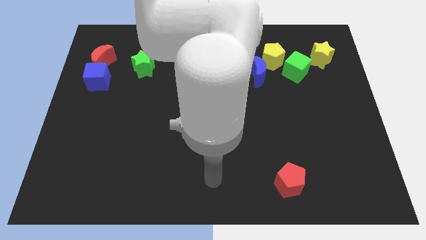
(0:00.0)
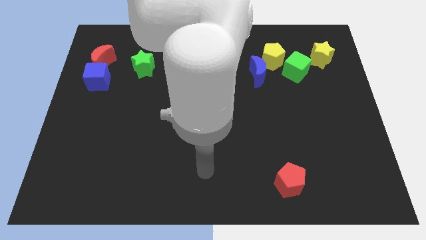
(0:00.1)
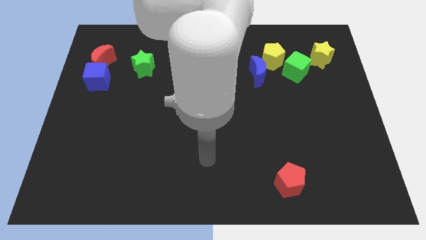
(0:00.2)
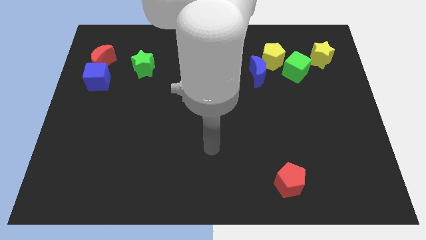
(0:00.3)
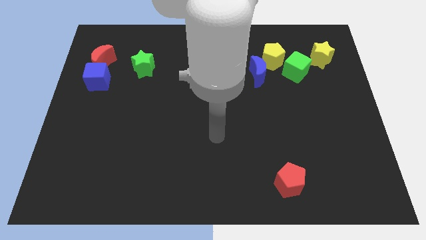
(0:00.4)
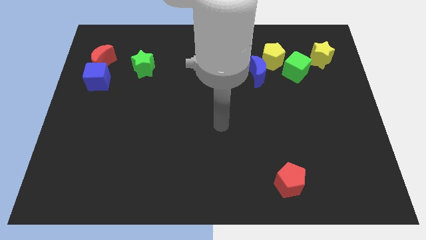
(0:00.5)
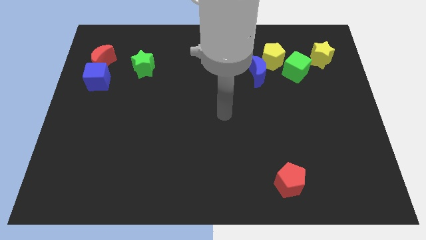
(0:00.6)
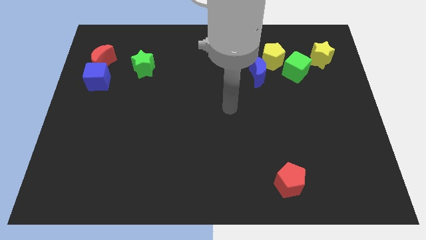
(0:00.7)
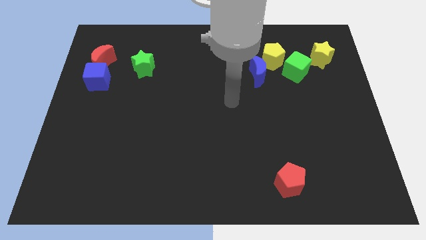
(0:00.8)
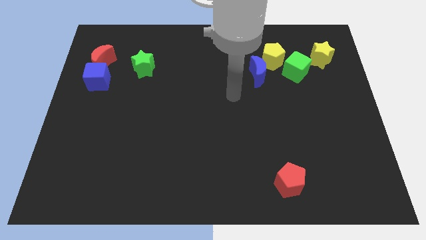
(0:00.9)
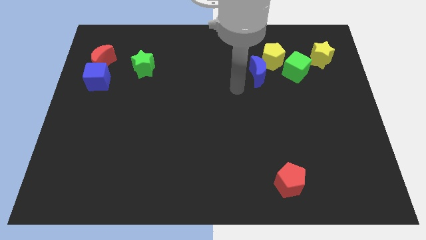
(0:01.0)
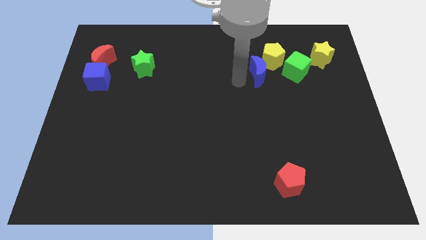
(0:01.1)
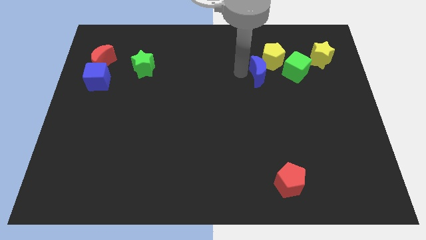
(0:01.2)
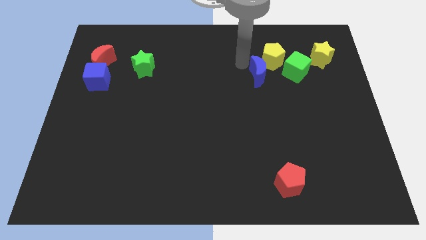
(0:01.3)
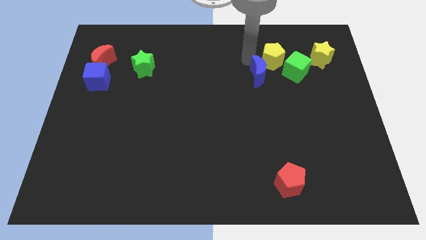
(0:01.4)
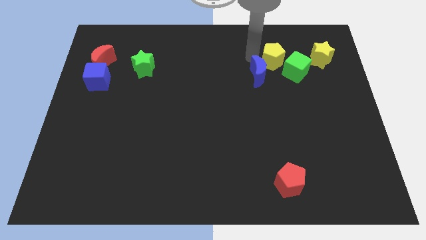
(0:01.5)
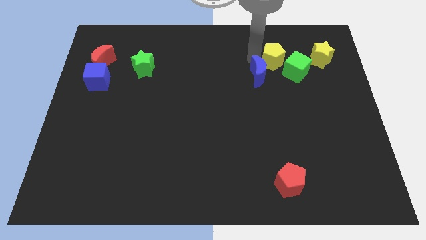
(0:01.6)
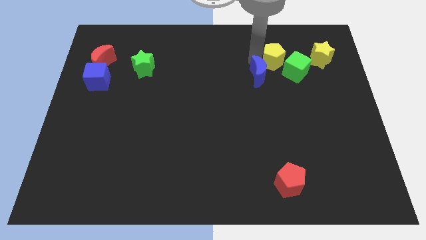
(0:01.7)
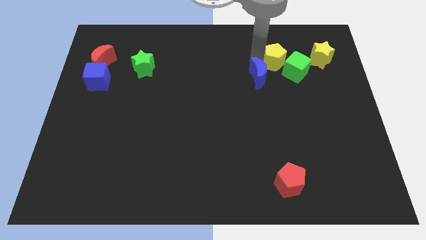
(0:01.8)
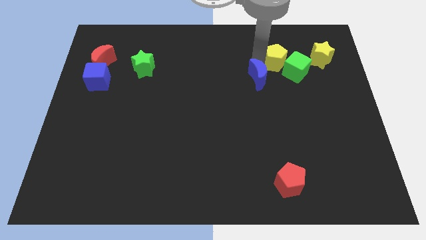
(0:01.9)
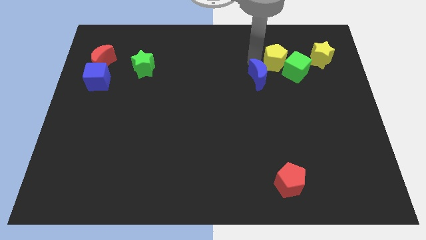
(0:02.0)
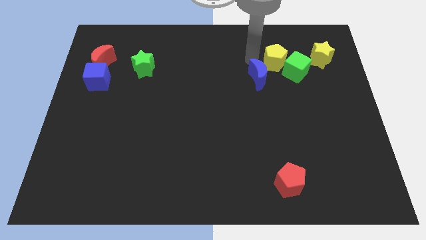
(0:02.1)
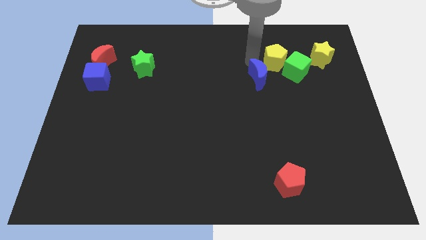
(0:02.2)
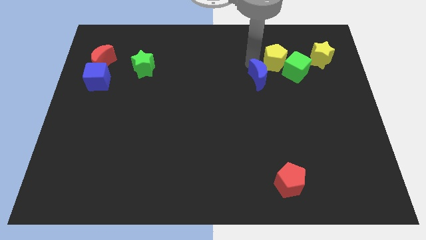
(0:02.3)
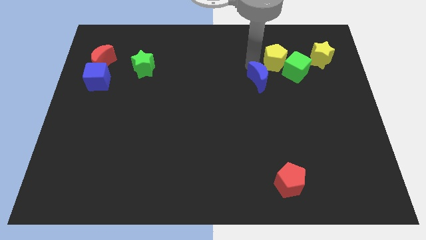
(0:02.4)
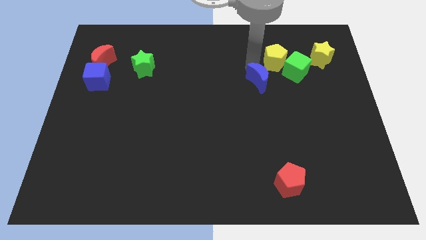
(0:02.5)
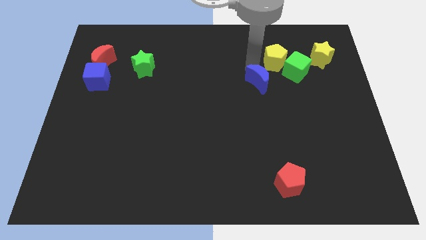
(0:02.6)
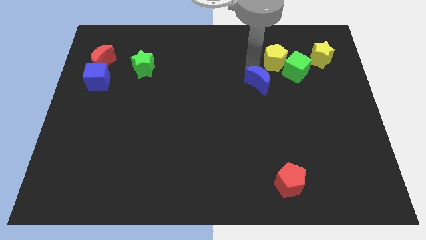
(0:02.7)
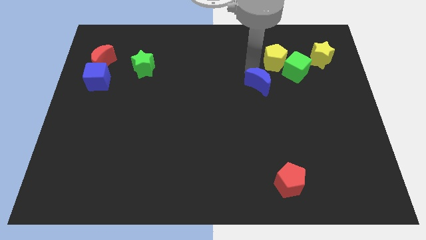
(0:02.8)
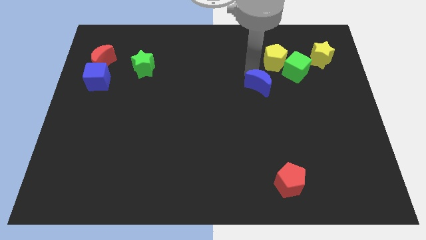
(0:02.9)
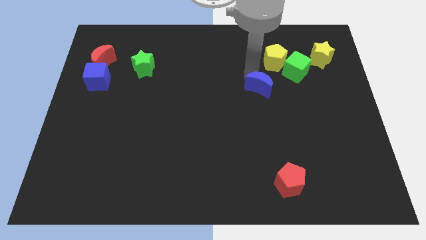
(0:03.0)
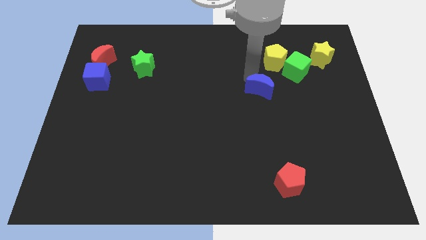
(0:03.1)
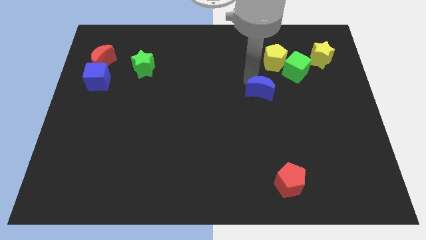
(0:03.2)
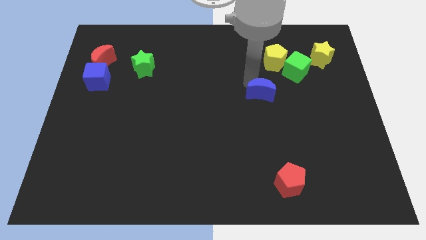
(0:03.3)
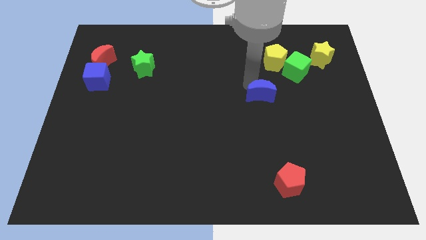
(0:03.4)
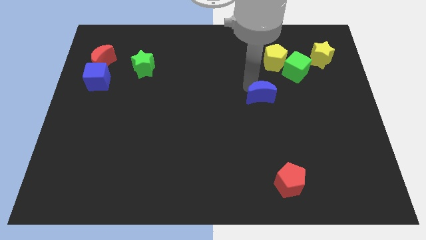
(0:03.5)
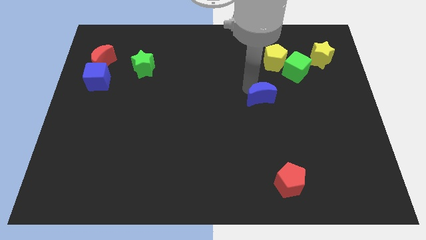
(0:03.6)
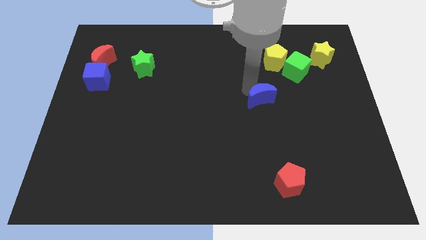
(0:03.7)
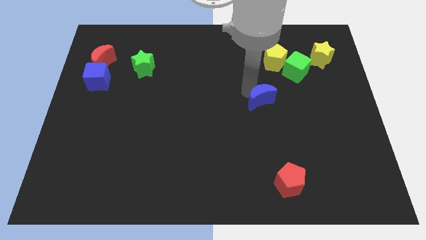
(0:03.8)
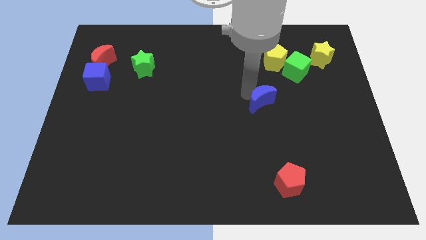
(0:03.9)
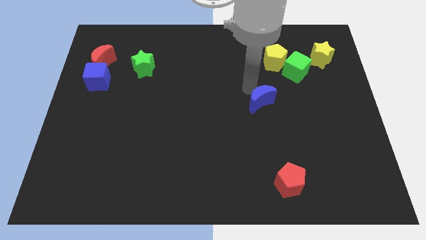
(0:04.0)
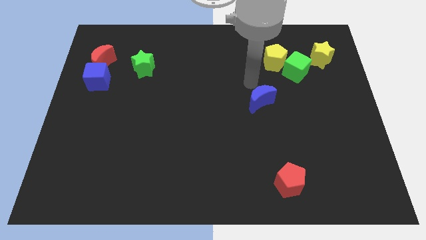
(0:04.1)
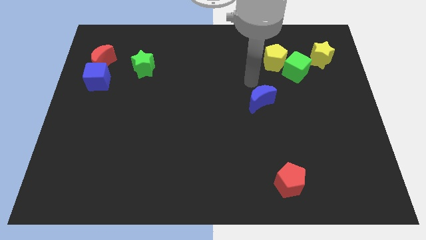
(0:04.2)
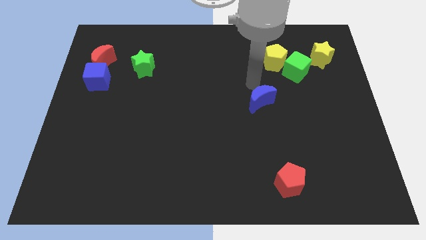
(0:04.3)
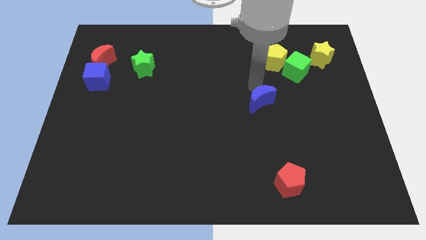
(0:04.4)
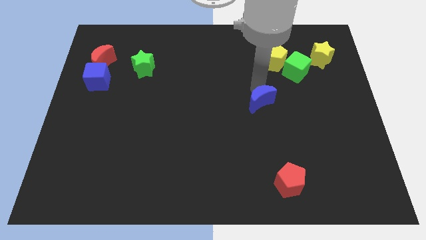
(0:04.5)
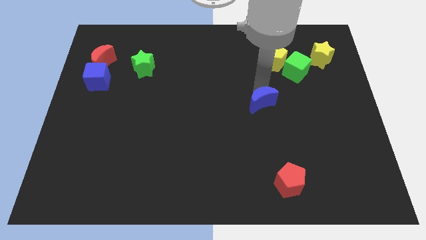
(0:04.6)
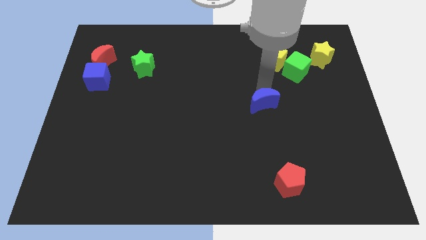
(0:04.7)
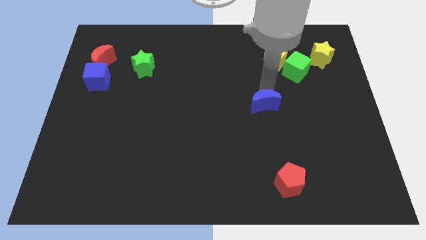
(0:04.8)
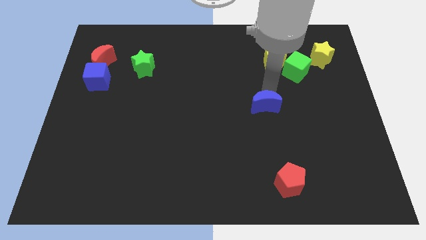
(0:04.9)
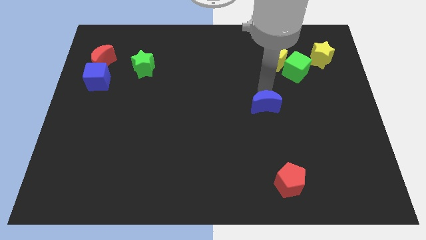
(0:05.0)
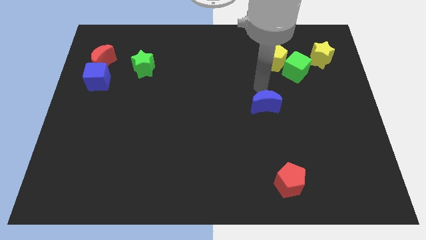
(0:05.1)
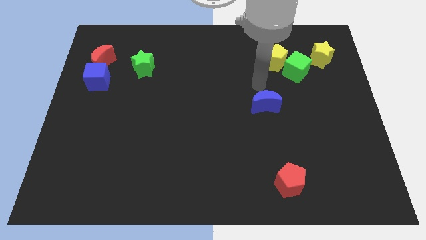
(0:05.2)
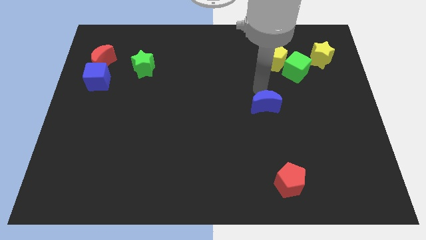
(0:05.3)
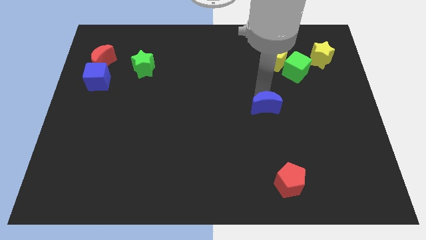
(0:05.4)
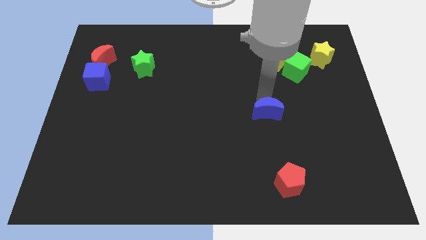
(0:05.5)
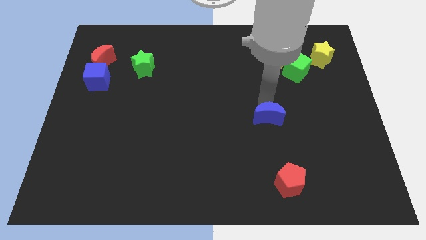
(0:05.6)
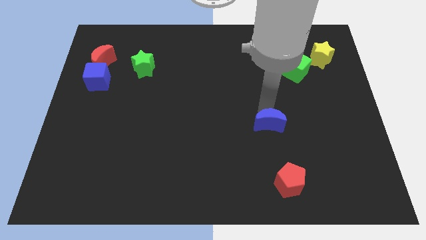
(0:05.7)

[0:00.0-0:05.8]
put the blue moon to the top of the red pentagon

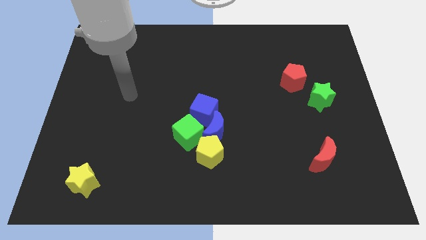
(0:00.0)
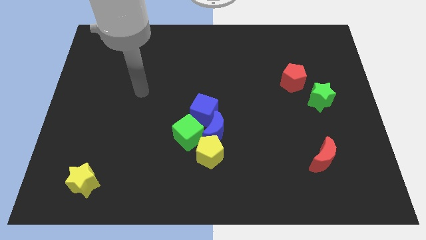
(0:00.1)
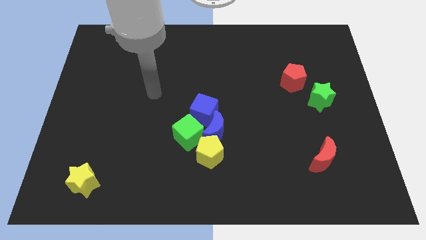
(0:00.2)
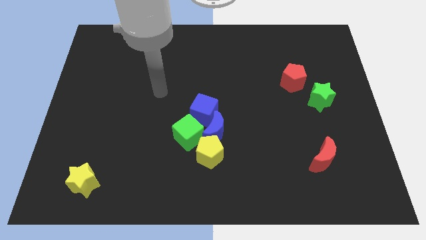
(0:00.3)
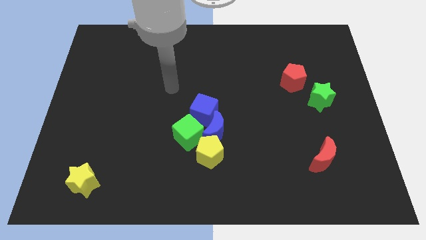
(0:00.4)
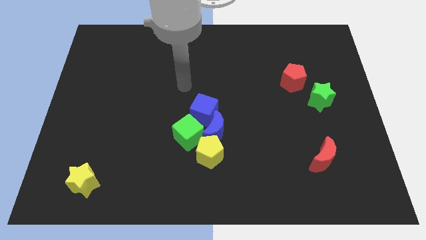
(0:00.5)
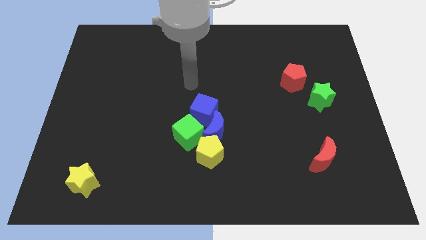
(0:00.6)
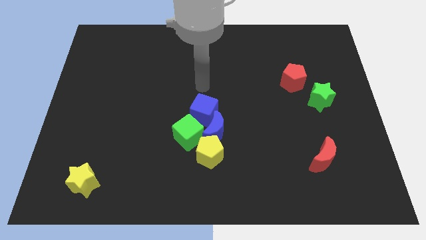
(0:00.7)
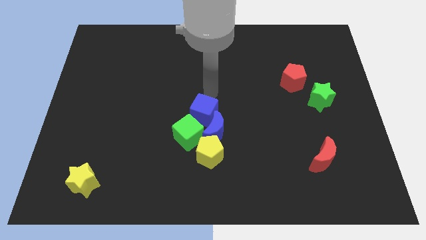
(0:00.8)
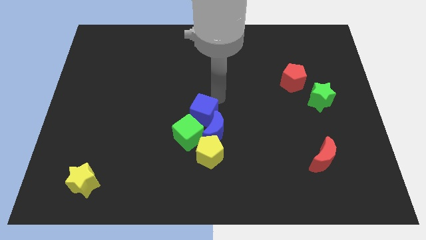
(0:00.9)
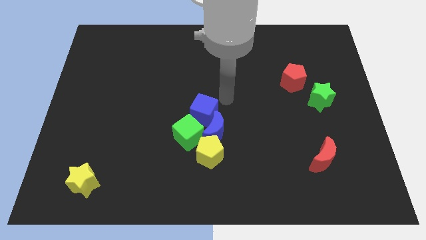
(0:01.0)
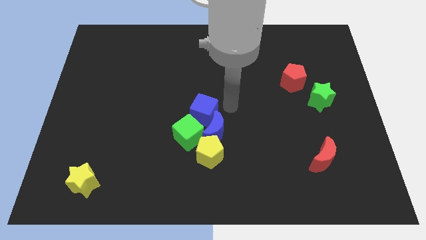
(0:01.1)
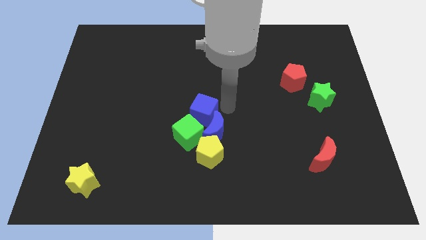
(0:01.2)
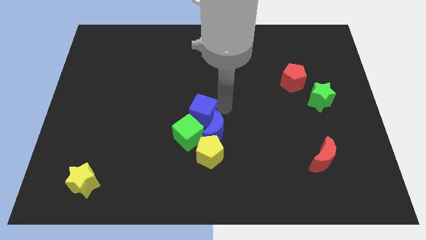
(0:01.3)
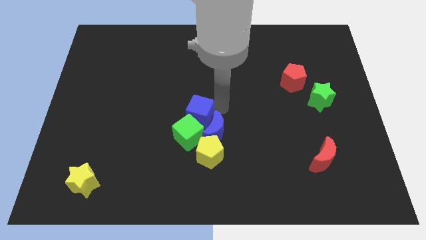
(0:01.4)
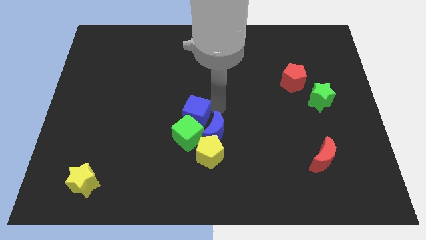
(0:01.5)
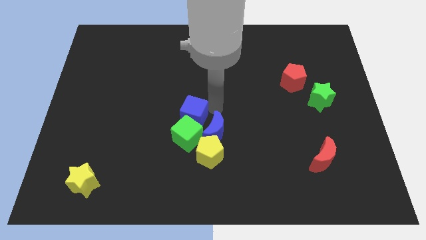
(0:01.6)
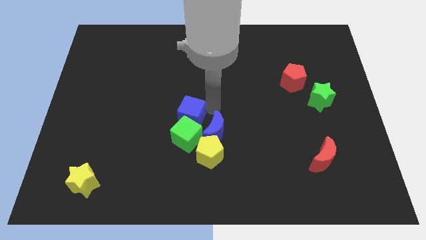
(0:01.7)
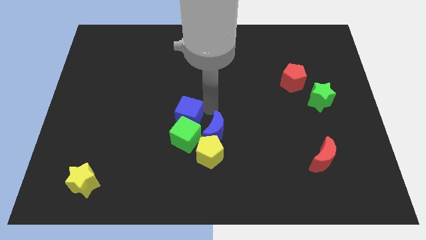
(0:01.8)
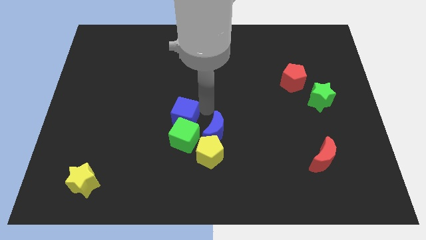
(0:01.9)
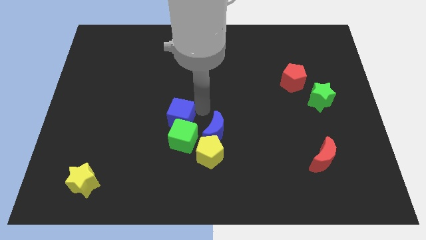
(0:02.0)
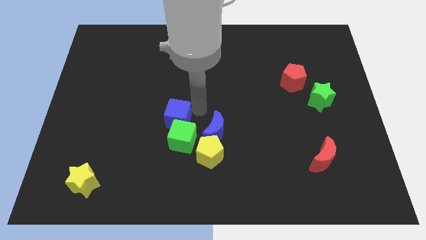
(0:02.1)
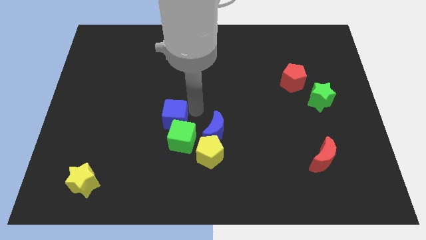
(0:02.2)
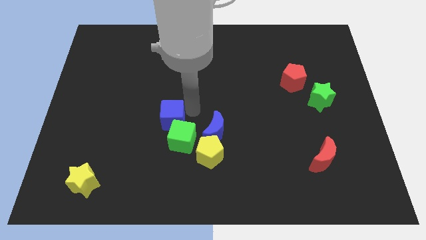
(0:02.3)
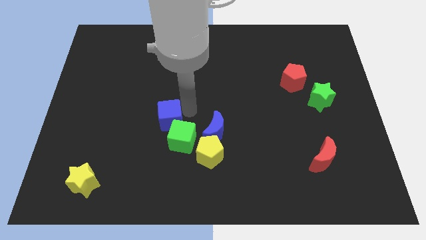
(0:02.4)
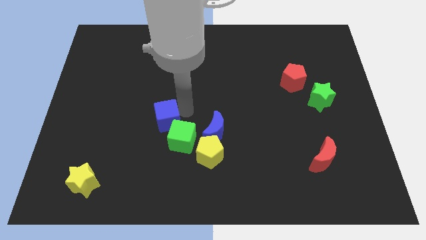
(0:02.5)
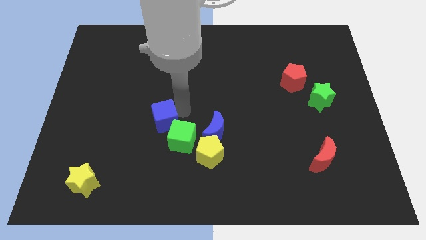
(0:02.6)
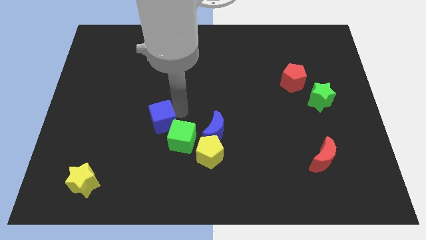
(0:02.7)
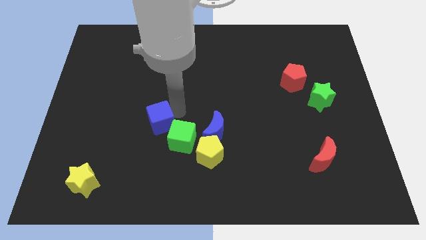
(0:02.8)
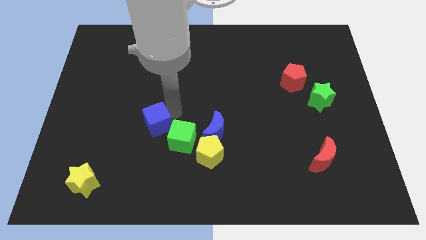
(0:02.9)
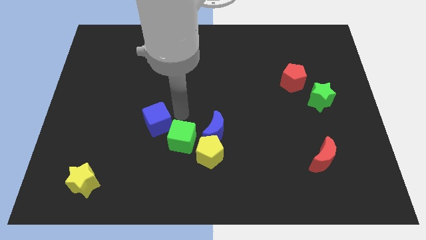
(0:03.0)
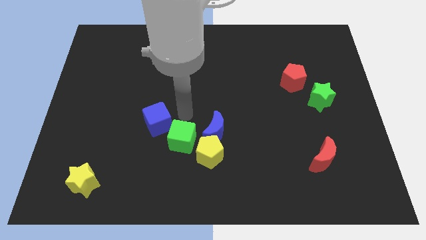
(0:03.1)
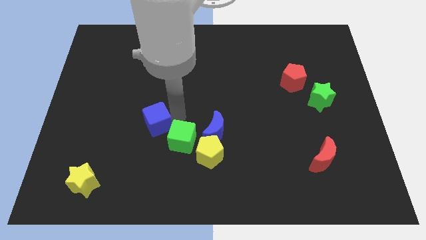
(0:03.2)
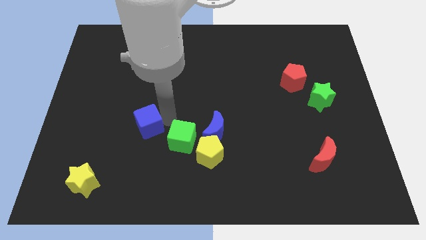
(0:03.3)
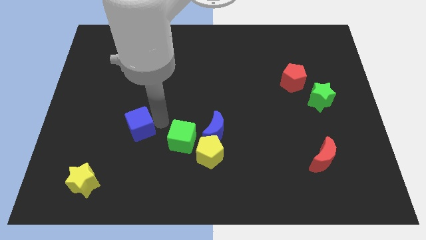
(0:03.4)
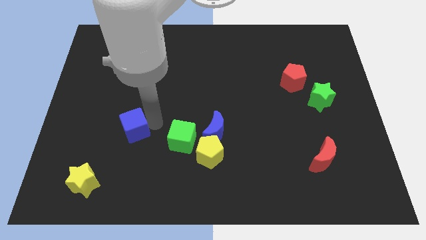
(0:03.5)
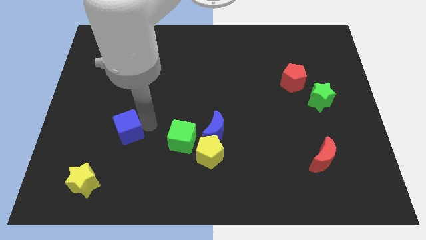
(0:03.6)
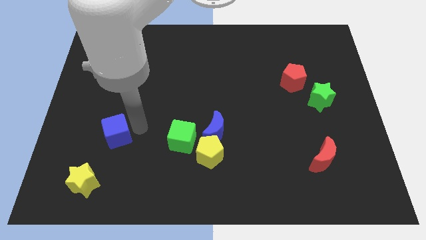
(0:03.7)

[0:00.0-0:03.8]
slide the blue cube to the top of the yellow star
